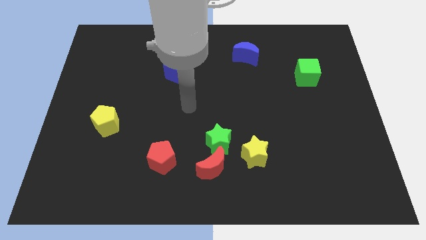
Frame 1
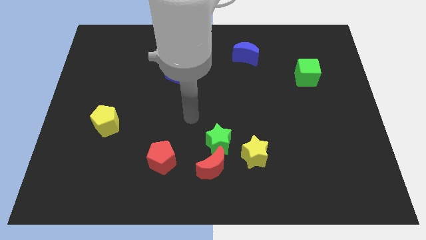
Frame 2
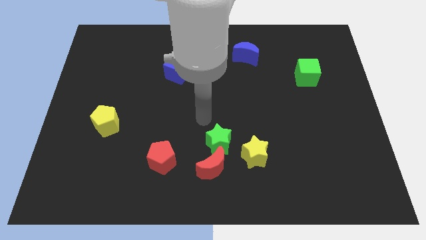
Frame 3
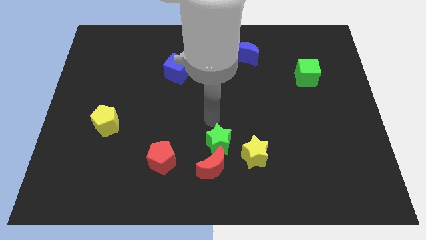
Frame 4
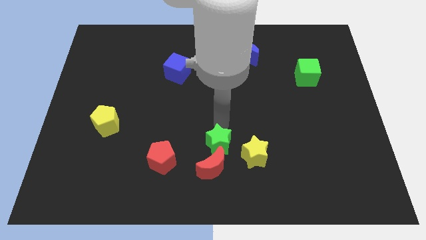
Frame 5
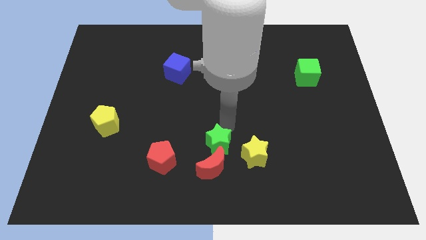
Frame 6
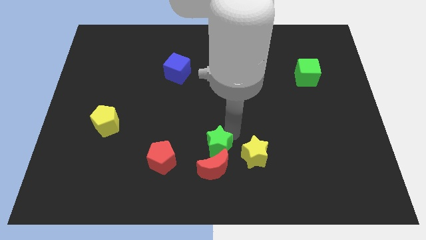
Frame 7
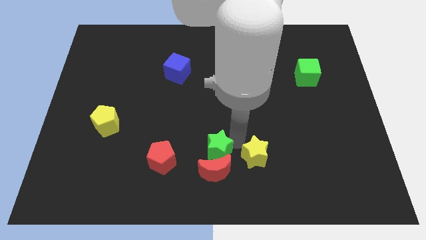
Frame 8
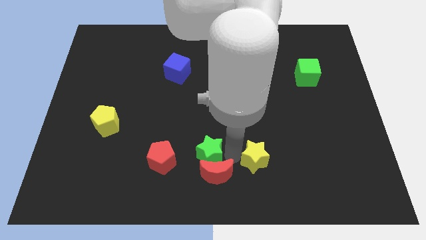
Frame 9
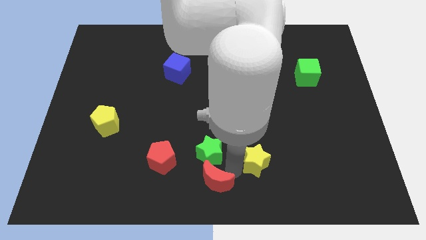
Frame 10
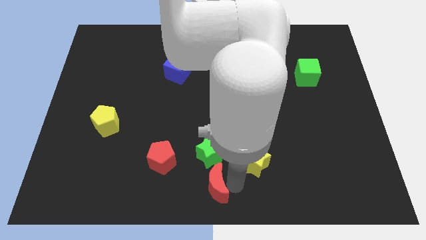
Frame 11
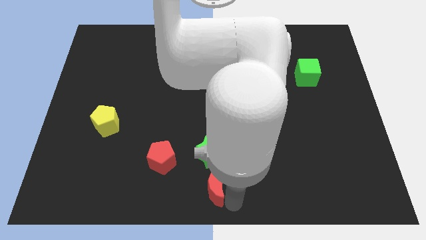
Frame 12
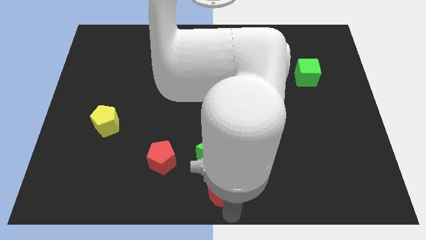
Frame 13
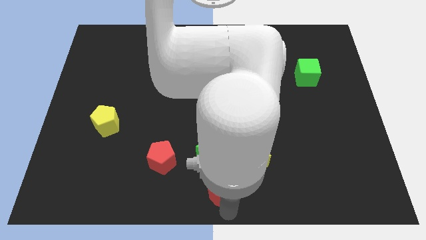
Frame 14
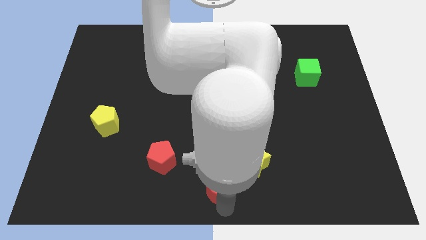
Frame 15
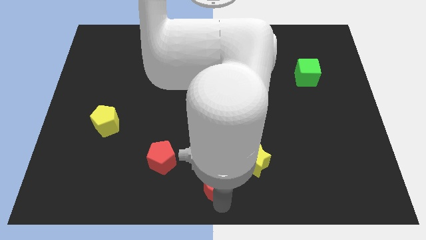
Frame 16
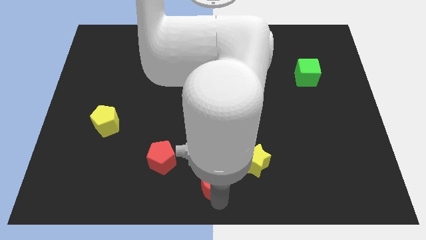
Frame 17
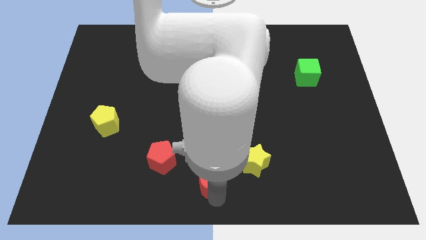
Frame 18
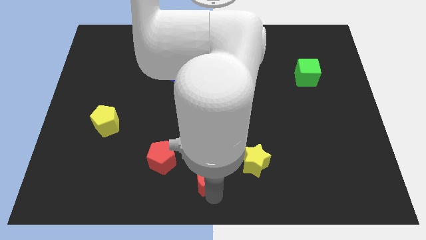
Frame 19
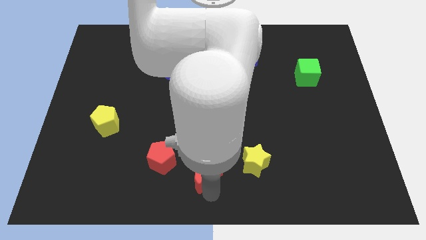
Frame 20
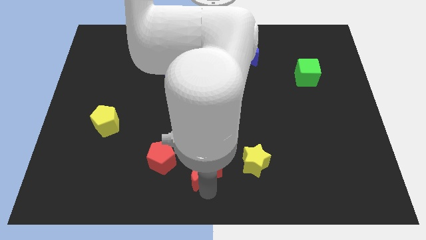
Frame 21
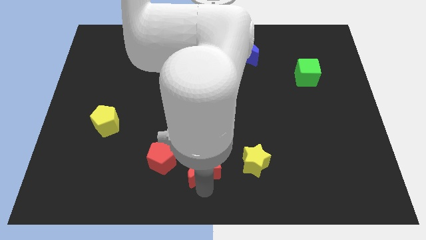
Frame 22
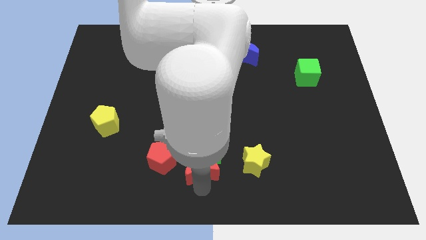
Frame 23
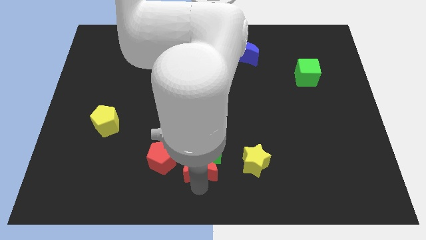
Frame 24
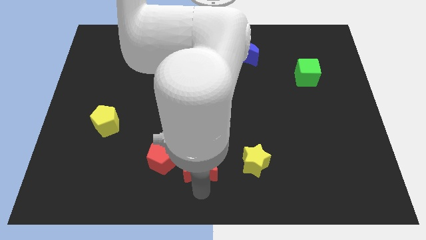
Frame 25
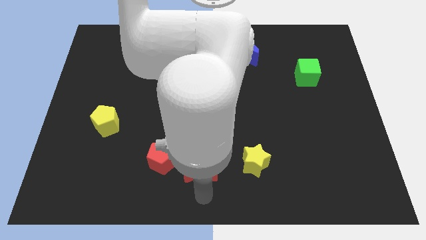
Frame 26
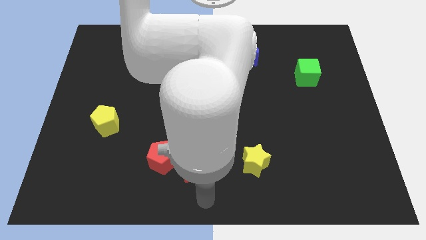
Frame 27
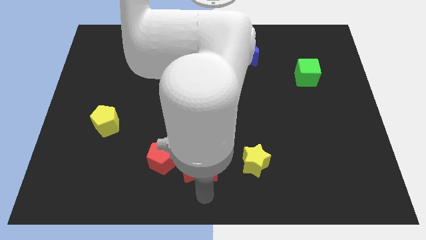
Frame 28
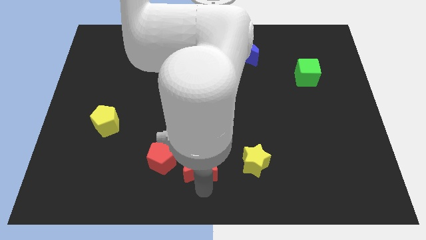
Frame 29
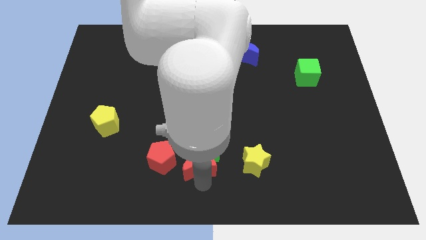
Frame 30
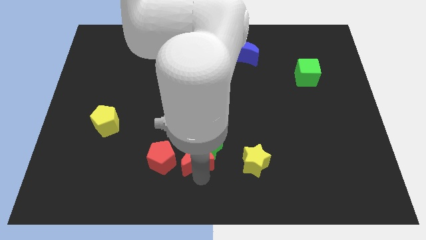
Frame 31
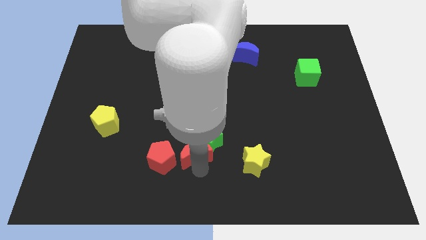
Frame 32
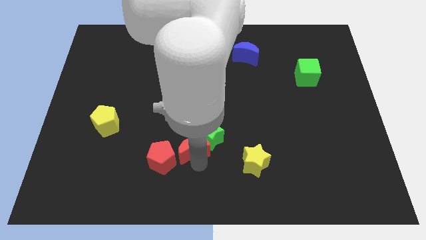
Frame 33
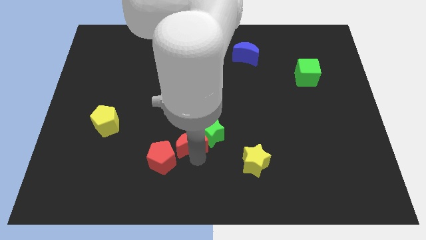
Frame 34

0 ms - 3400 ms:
move the red moon a bit up and then to the left

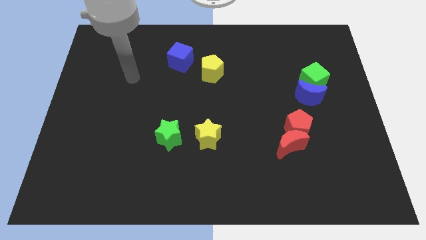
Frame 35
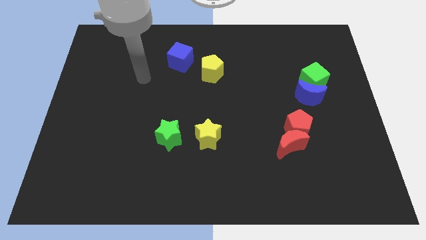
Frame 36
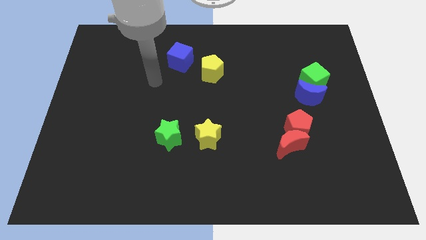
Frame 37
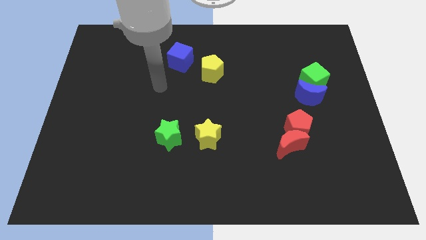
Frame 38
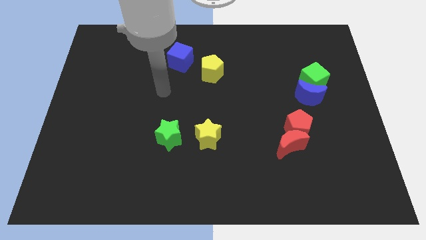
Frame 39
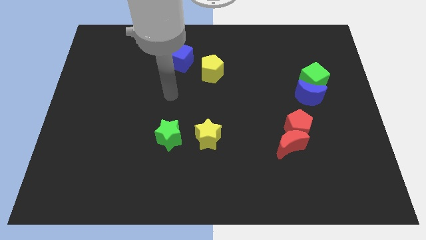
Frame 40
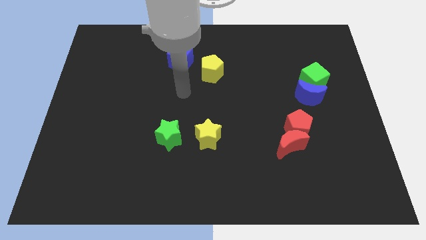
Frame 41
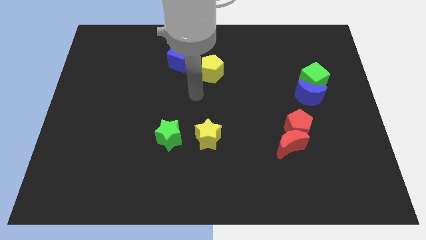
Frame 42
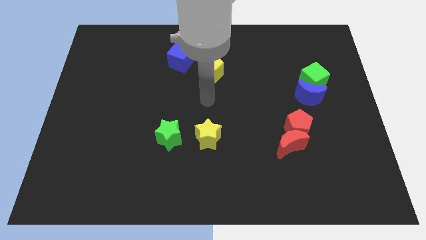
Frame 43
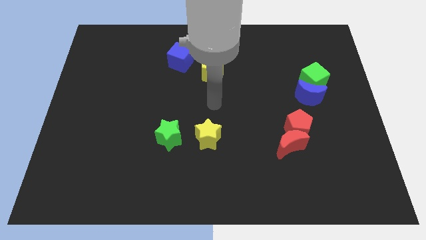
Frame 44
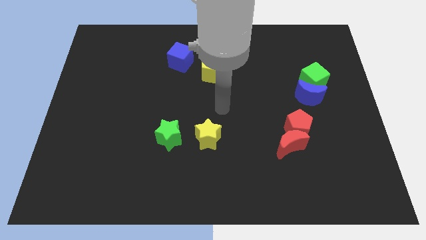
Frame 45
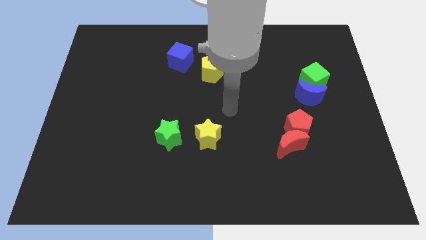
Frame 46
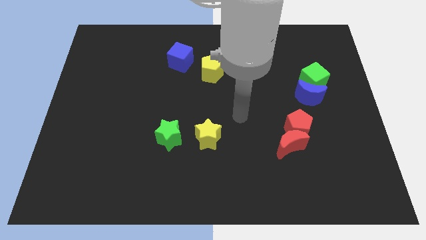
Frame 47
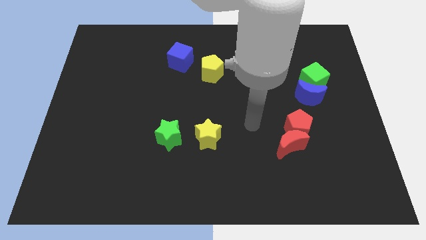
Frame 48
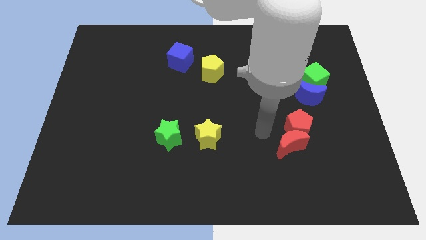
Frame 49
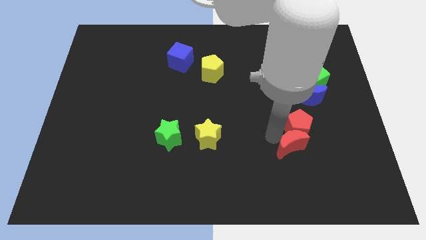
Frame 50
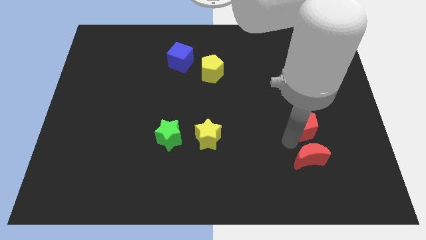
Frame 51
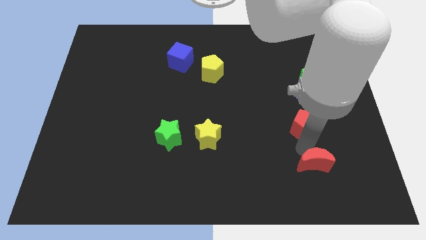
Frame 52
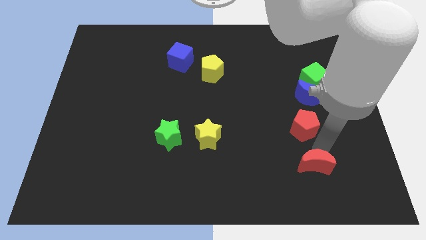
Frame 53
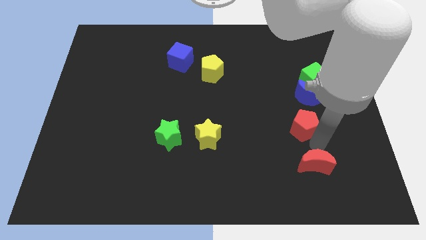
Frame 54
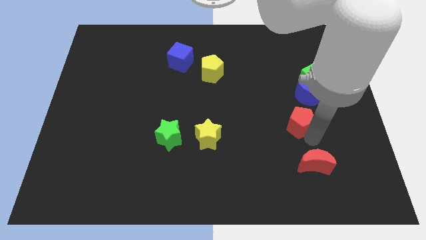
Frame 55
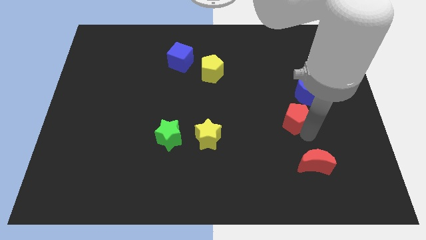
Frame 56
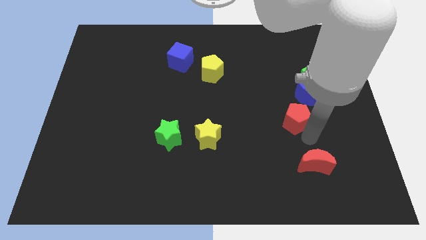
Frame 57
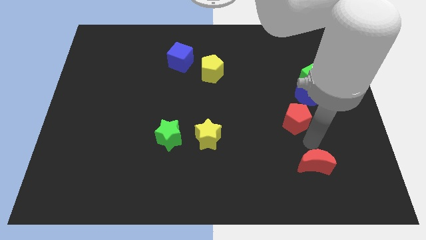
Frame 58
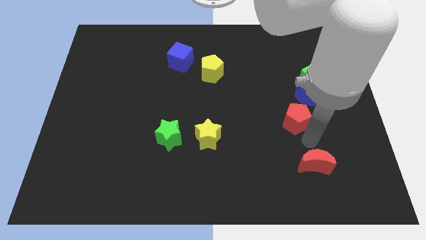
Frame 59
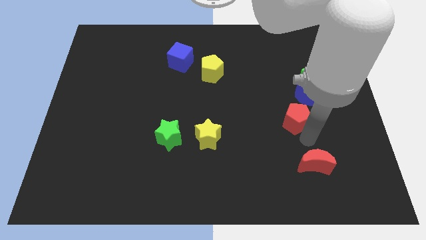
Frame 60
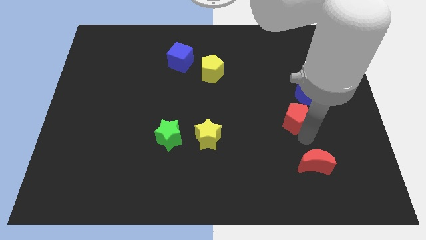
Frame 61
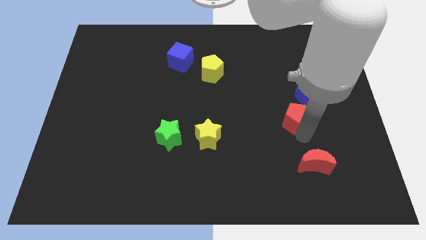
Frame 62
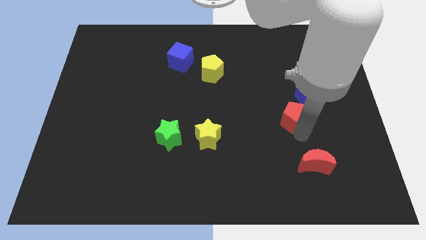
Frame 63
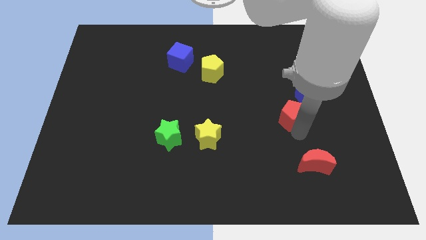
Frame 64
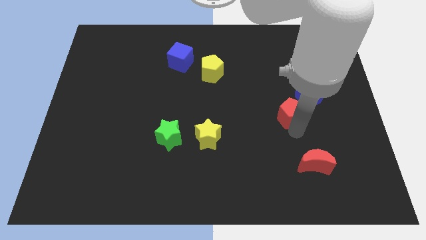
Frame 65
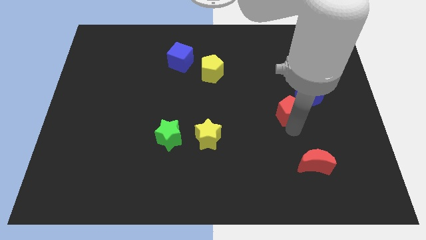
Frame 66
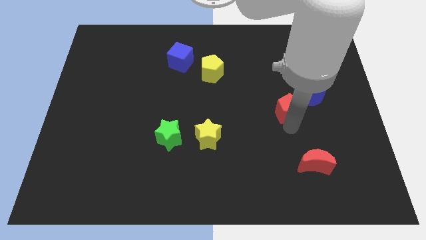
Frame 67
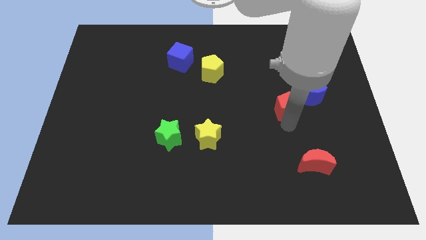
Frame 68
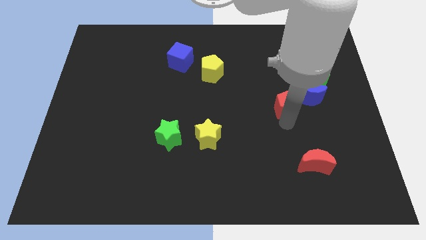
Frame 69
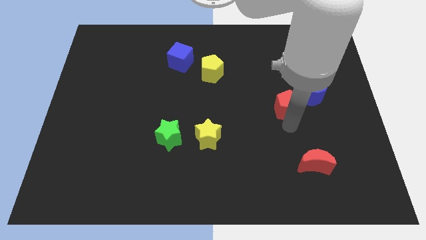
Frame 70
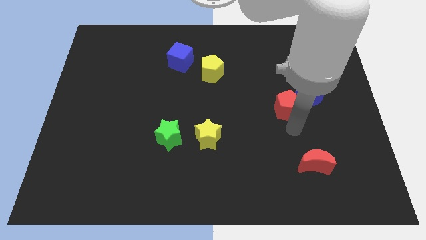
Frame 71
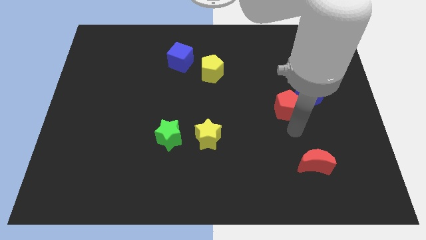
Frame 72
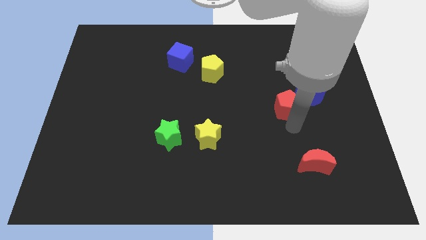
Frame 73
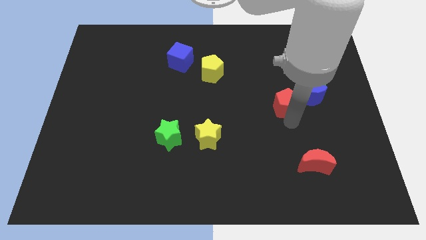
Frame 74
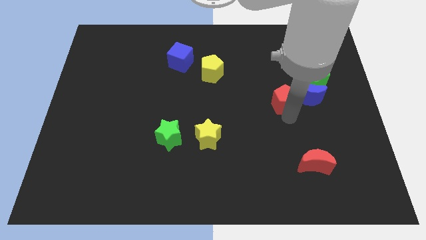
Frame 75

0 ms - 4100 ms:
move the red pentagon upwards a bit

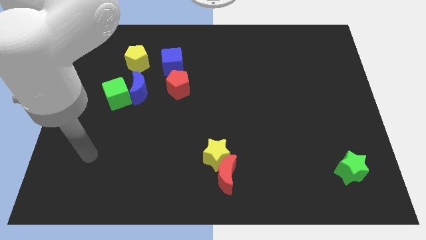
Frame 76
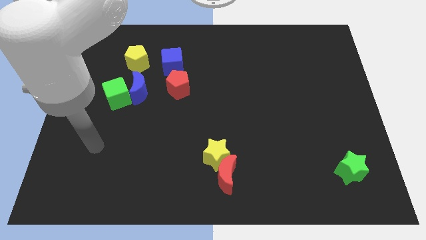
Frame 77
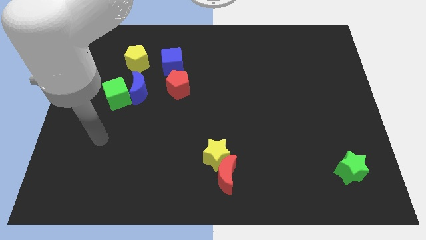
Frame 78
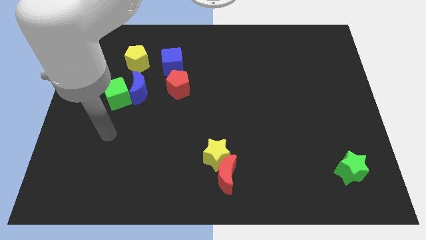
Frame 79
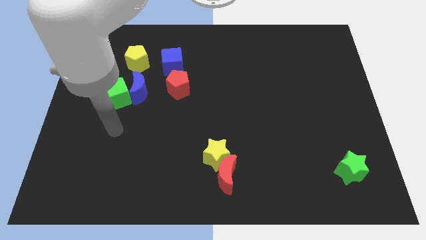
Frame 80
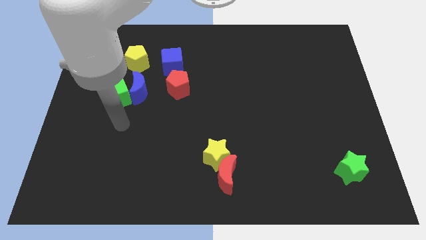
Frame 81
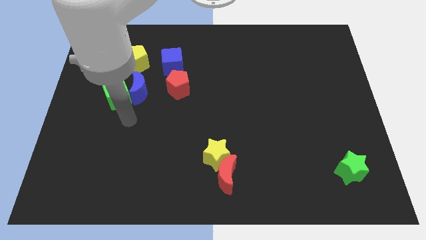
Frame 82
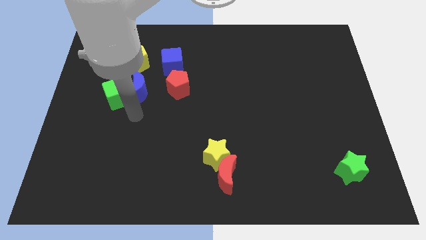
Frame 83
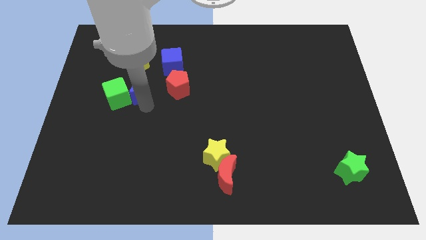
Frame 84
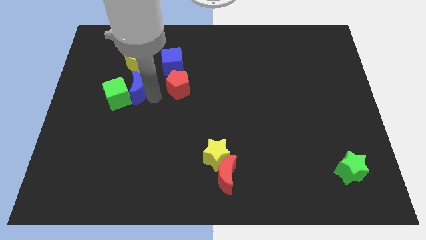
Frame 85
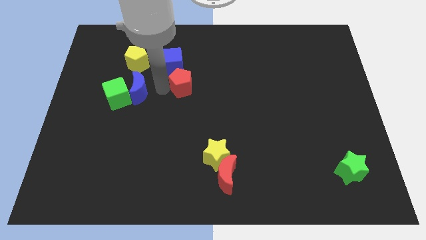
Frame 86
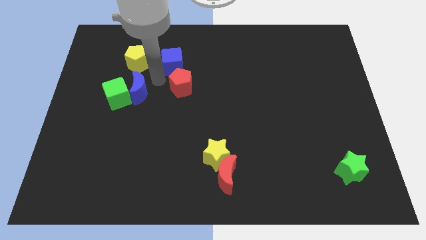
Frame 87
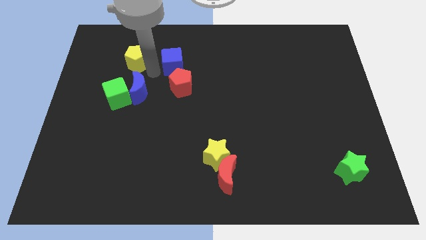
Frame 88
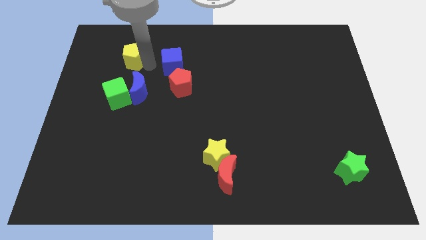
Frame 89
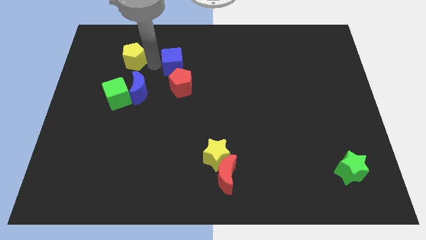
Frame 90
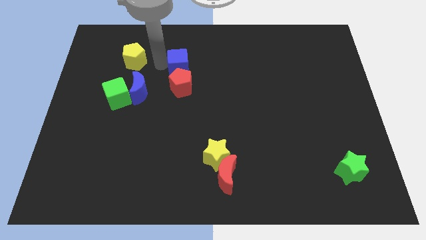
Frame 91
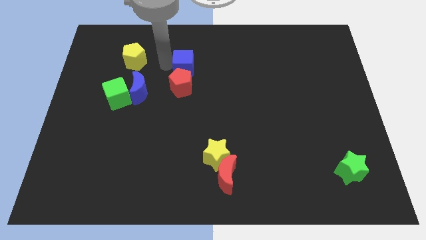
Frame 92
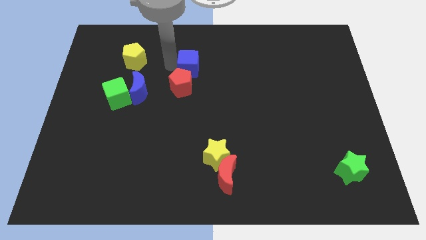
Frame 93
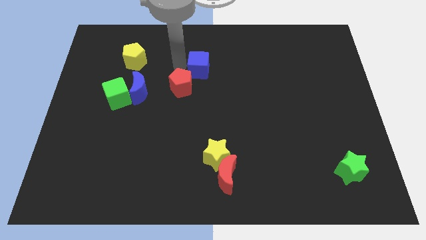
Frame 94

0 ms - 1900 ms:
slightly slide the blue cube right
